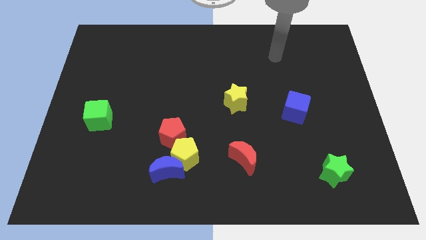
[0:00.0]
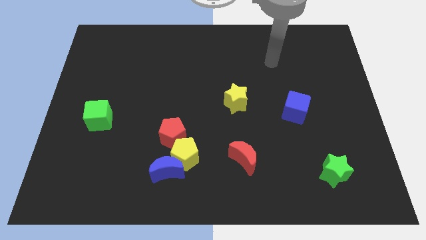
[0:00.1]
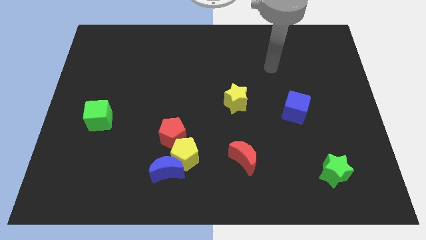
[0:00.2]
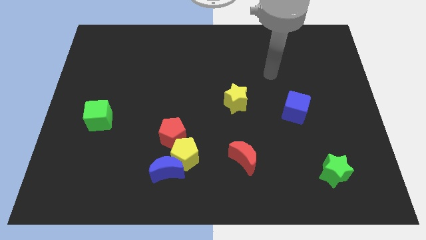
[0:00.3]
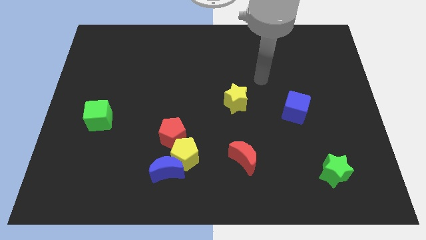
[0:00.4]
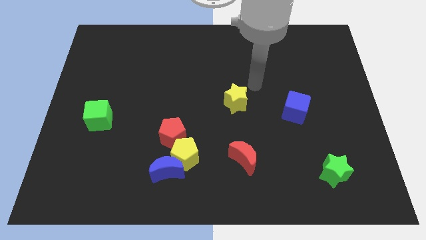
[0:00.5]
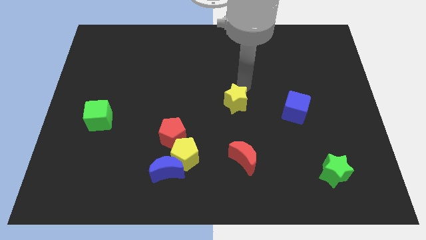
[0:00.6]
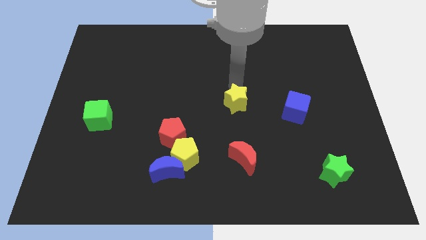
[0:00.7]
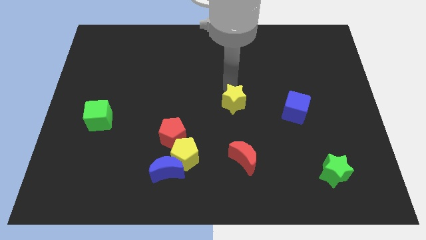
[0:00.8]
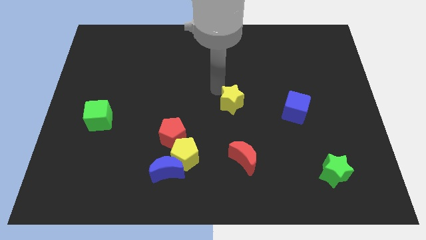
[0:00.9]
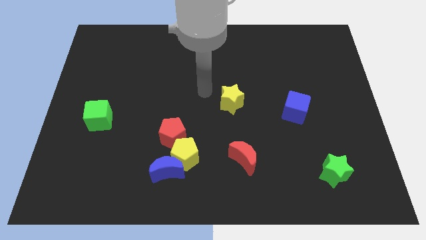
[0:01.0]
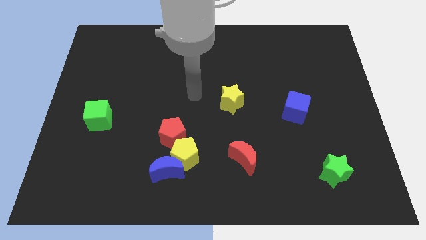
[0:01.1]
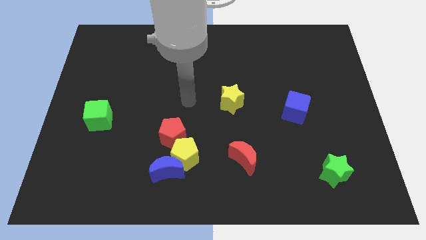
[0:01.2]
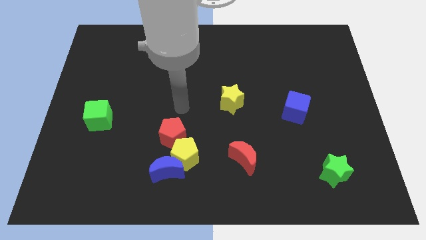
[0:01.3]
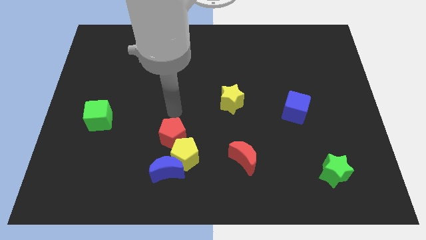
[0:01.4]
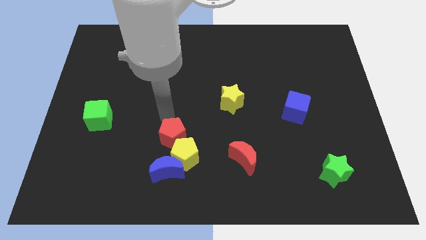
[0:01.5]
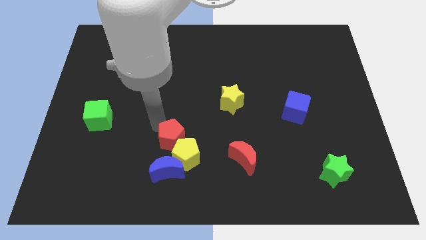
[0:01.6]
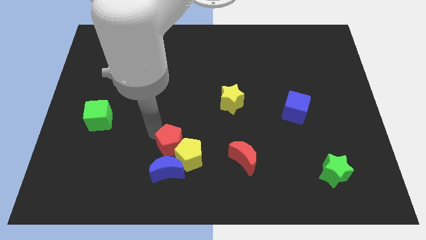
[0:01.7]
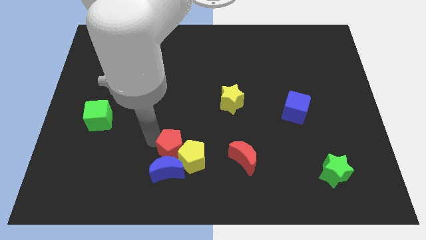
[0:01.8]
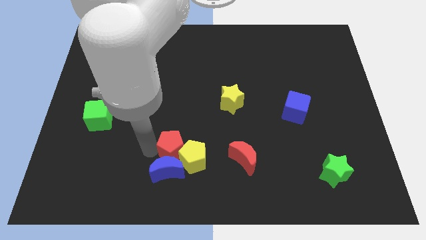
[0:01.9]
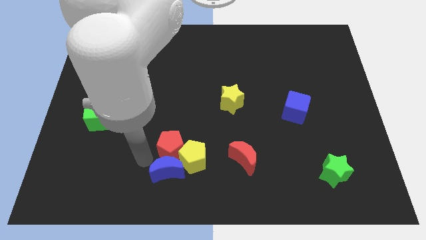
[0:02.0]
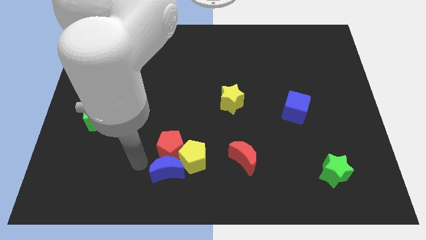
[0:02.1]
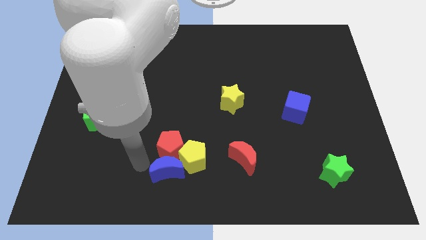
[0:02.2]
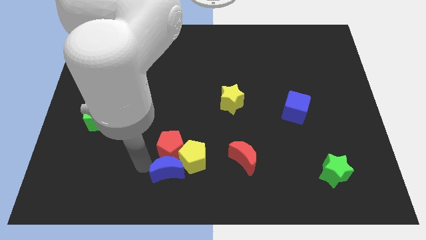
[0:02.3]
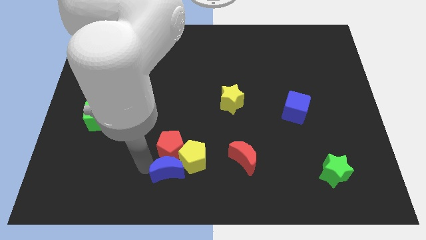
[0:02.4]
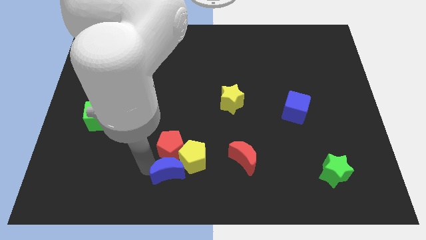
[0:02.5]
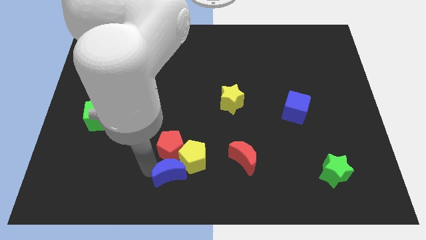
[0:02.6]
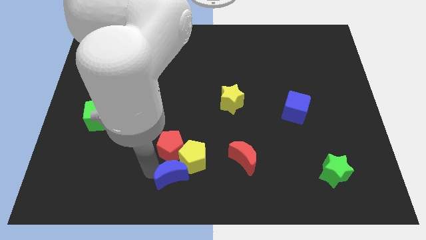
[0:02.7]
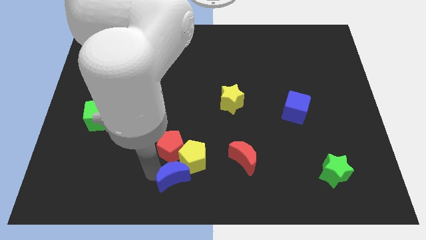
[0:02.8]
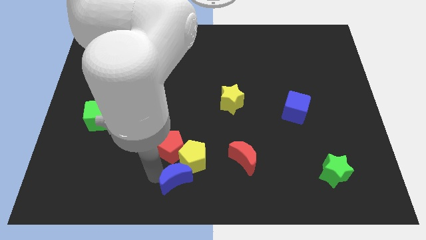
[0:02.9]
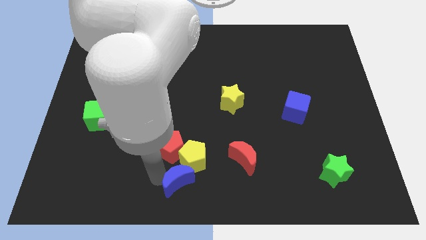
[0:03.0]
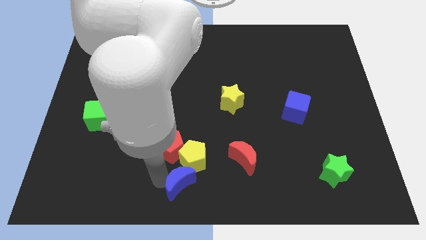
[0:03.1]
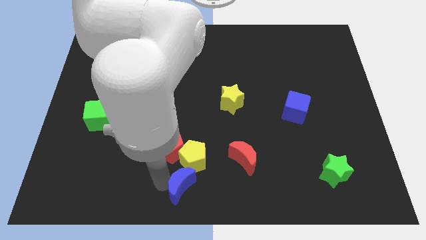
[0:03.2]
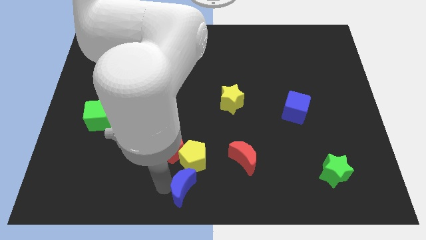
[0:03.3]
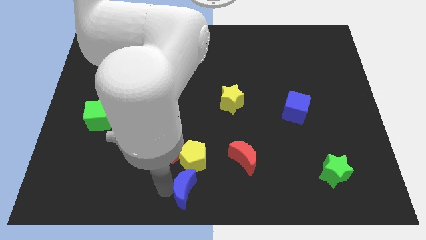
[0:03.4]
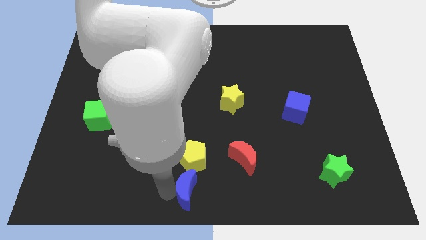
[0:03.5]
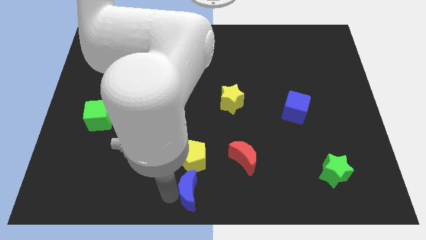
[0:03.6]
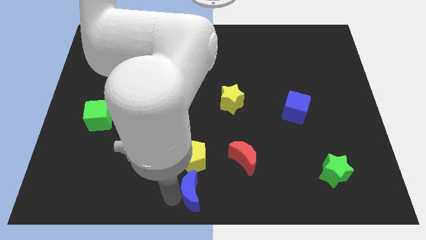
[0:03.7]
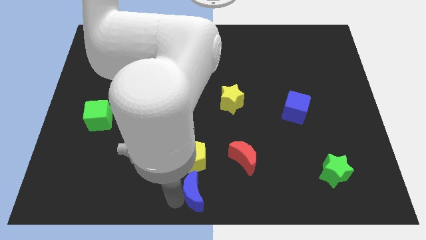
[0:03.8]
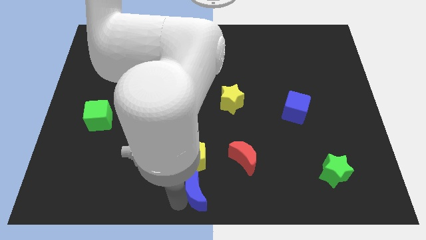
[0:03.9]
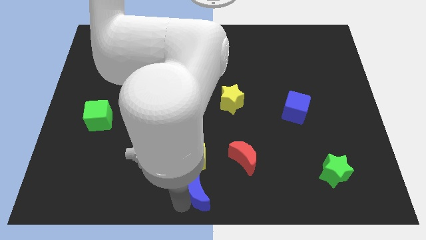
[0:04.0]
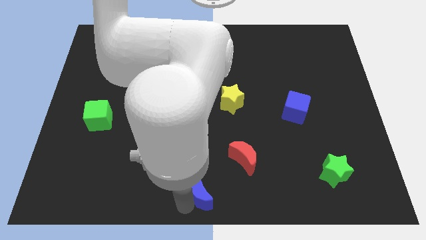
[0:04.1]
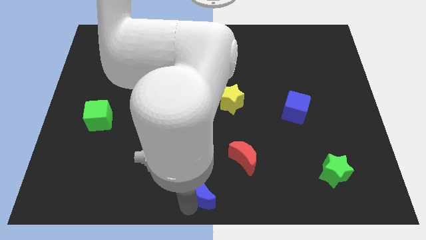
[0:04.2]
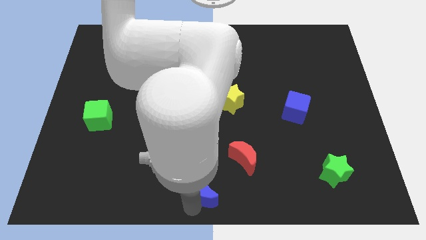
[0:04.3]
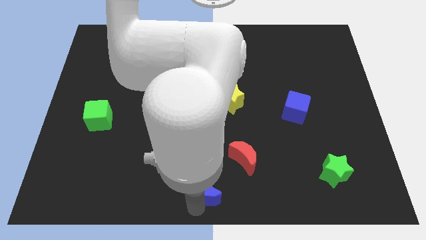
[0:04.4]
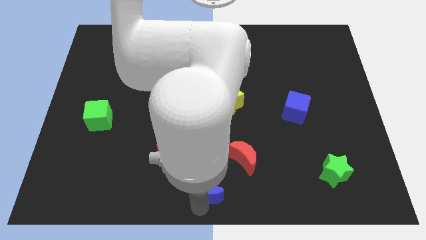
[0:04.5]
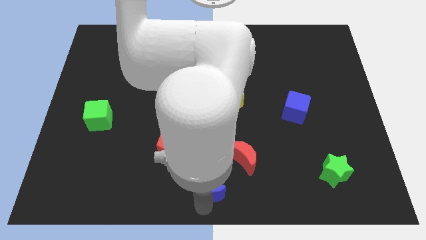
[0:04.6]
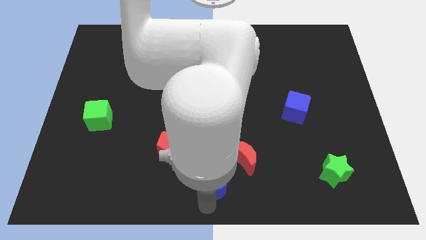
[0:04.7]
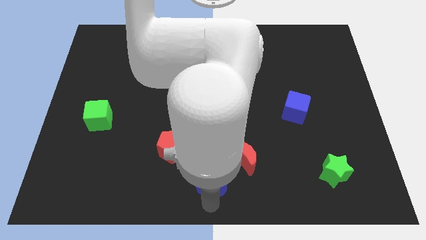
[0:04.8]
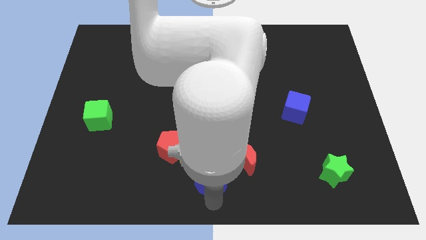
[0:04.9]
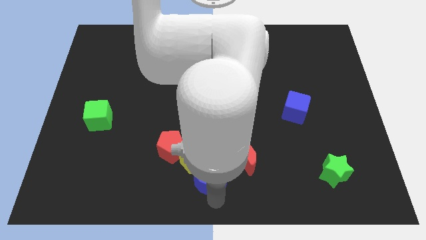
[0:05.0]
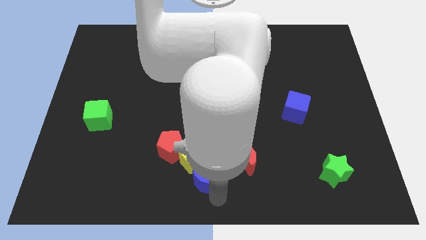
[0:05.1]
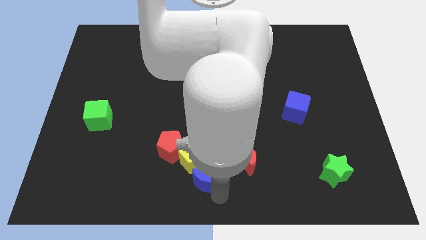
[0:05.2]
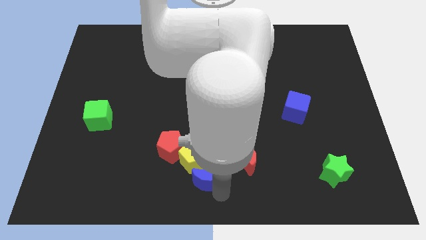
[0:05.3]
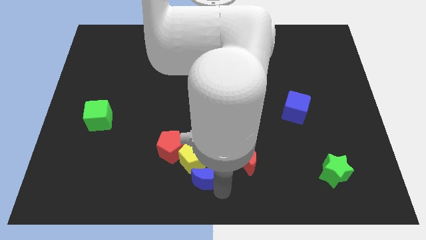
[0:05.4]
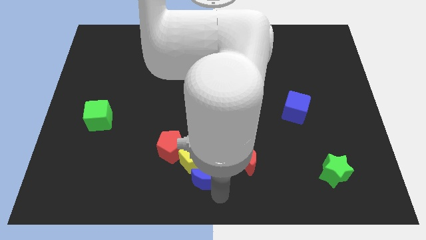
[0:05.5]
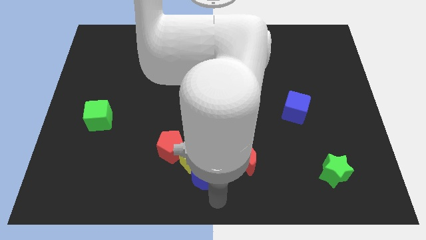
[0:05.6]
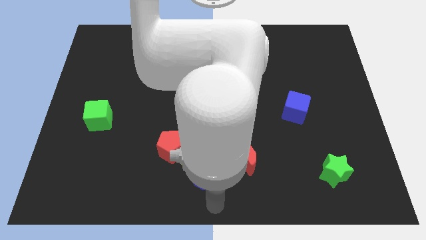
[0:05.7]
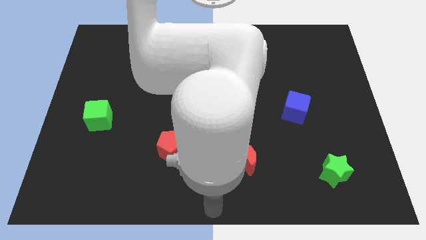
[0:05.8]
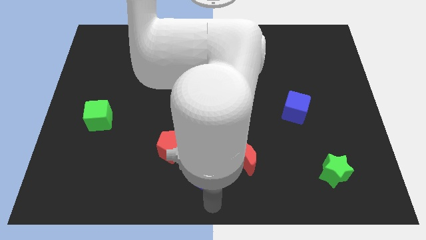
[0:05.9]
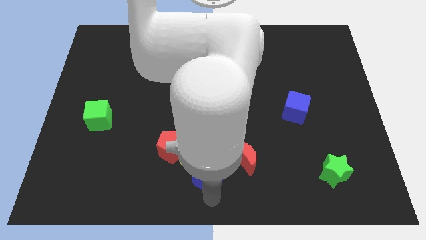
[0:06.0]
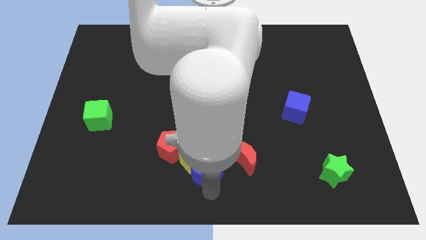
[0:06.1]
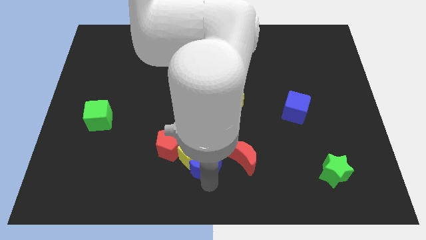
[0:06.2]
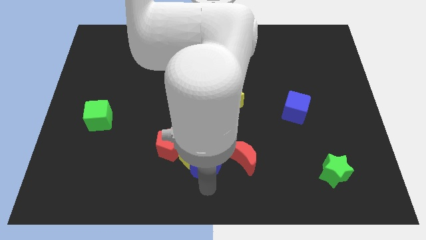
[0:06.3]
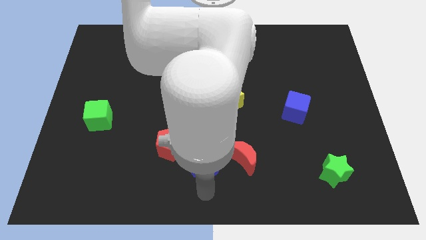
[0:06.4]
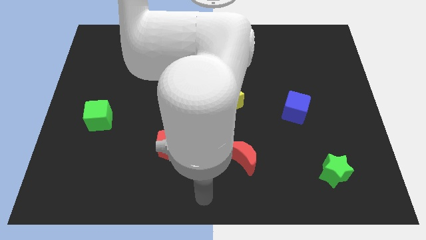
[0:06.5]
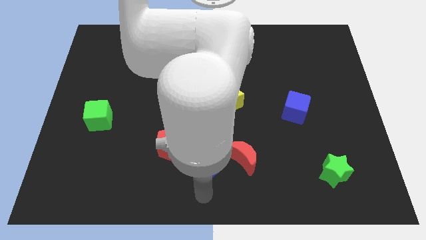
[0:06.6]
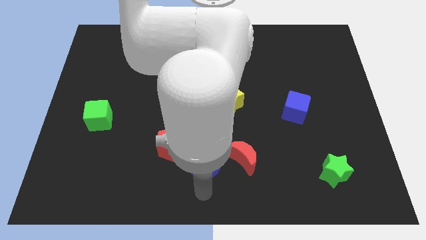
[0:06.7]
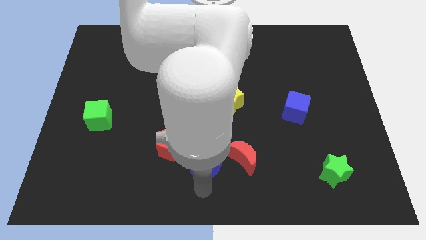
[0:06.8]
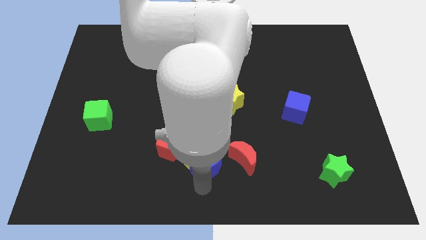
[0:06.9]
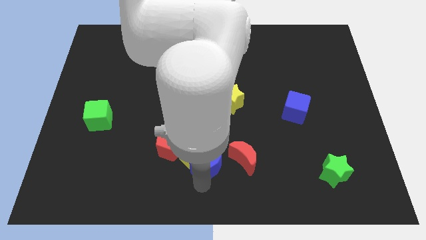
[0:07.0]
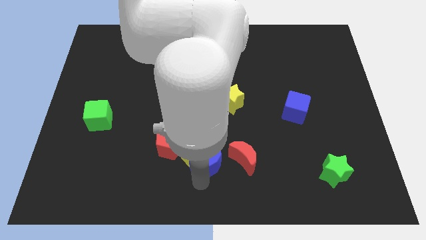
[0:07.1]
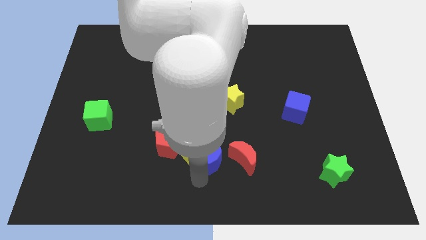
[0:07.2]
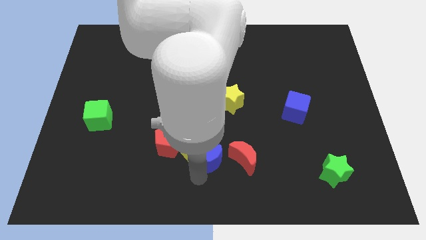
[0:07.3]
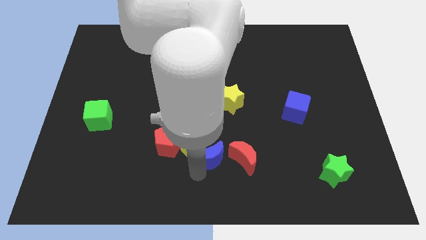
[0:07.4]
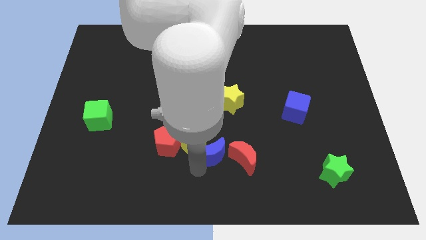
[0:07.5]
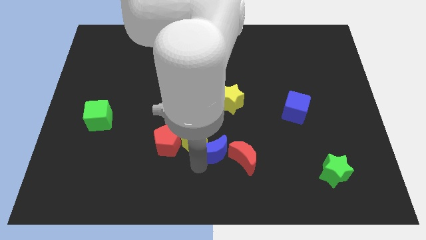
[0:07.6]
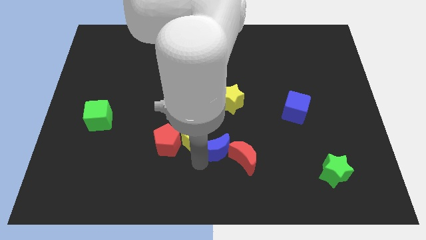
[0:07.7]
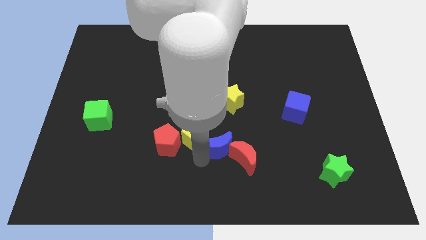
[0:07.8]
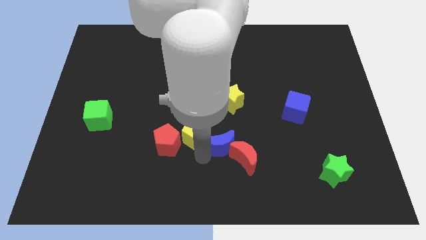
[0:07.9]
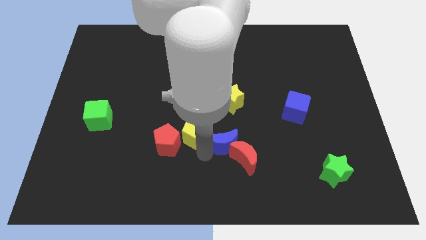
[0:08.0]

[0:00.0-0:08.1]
slide the blue moon to the middle of the board
